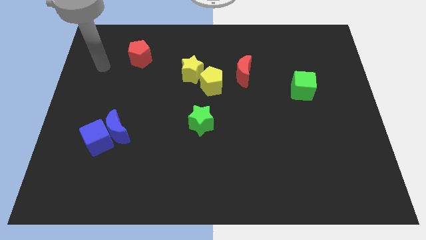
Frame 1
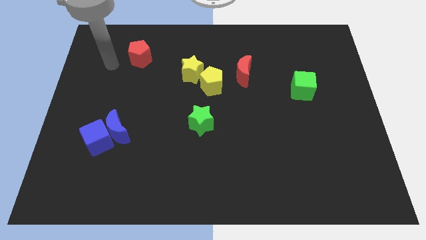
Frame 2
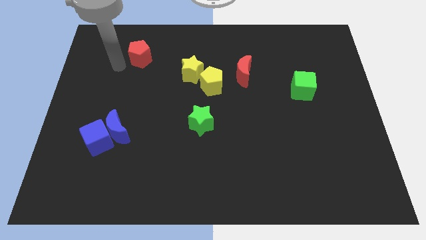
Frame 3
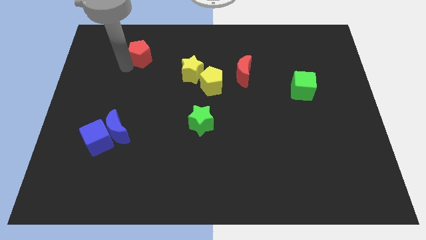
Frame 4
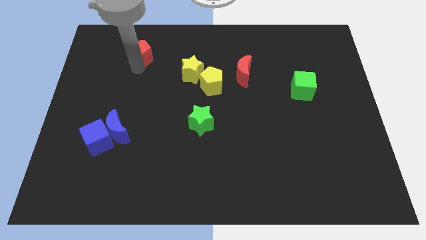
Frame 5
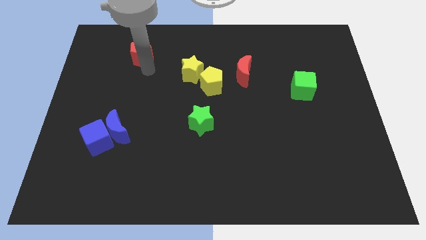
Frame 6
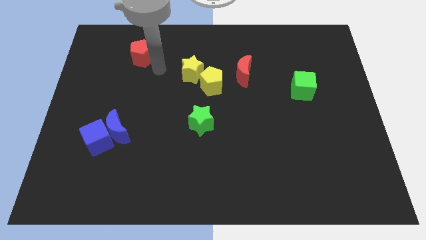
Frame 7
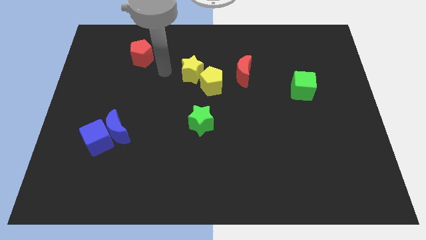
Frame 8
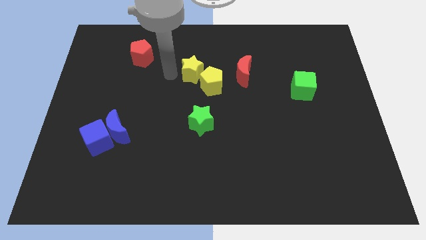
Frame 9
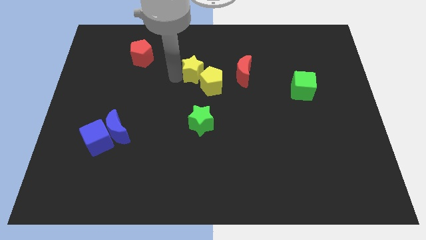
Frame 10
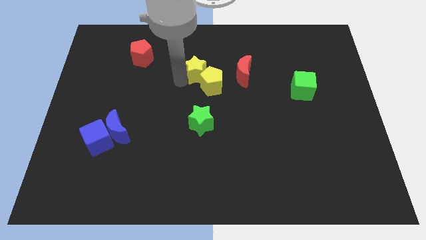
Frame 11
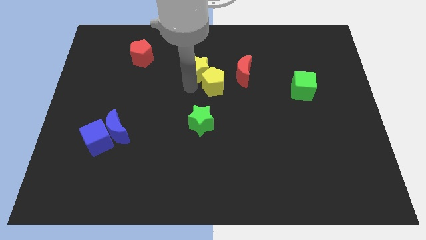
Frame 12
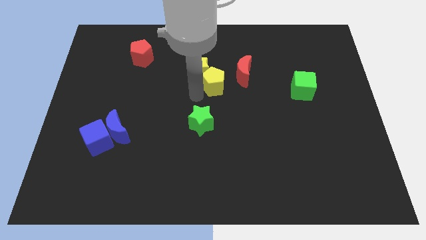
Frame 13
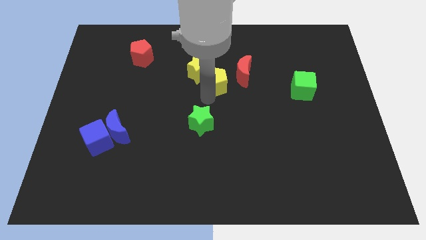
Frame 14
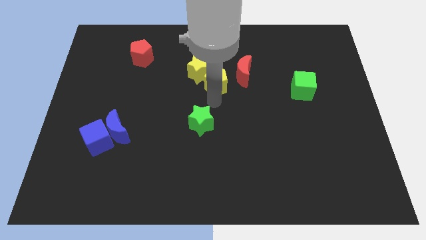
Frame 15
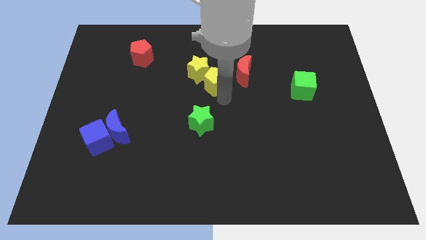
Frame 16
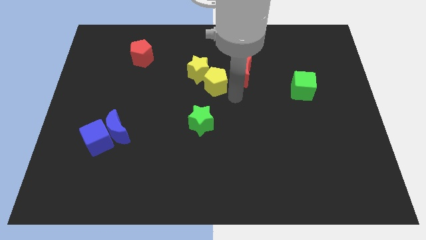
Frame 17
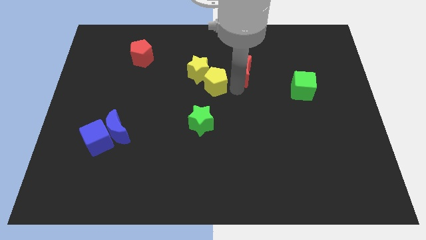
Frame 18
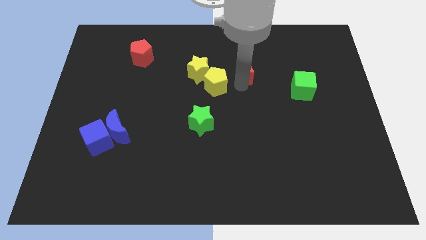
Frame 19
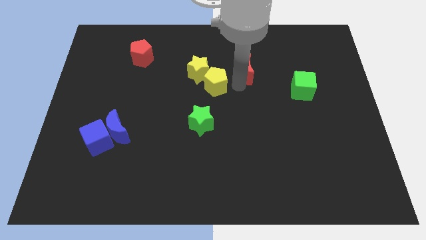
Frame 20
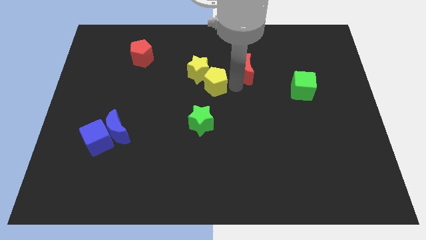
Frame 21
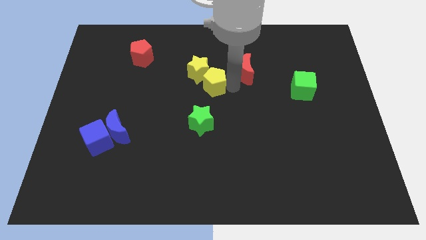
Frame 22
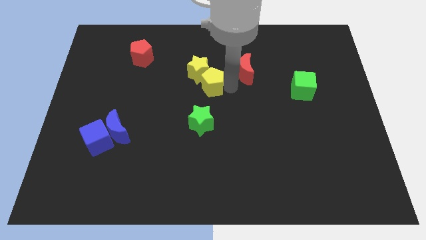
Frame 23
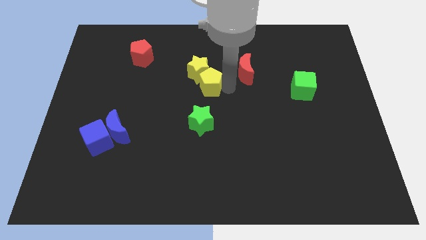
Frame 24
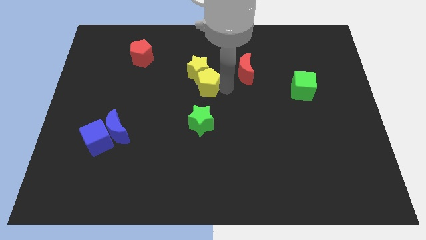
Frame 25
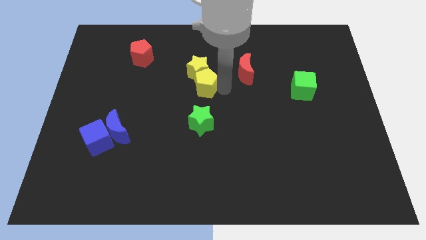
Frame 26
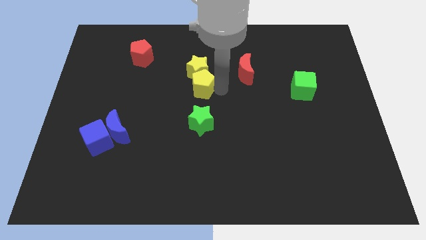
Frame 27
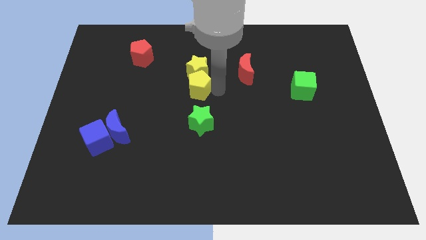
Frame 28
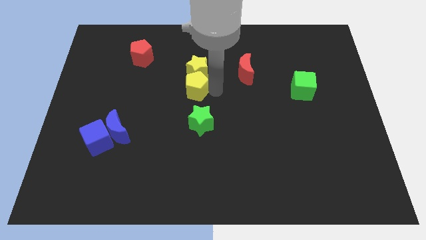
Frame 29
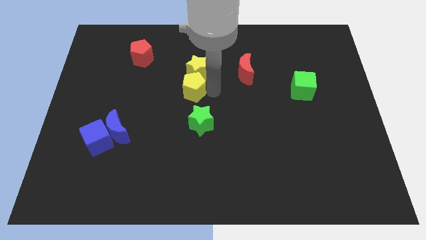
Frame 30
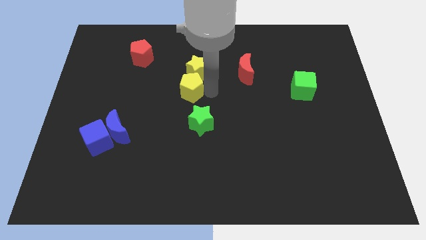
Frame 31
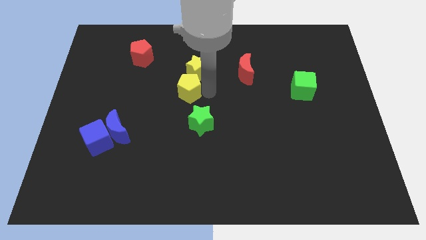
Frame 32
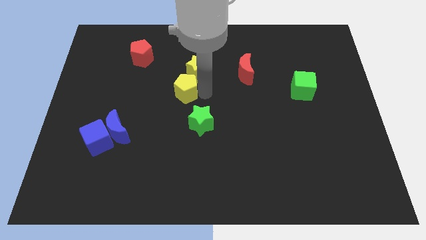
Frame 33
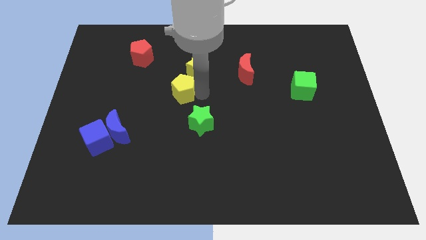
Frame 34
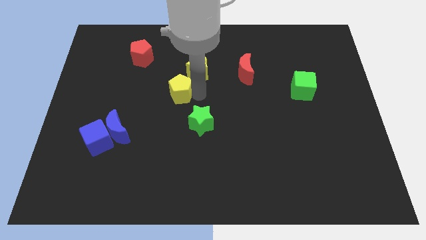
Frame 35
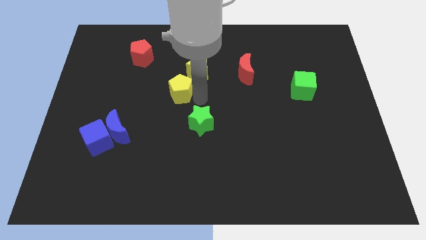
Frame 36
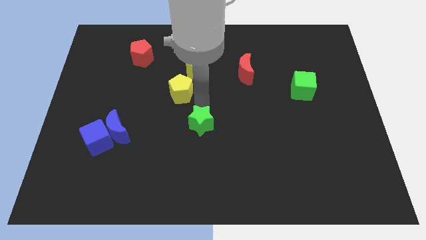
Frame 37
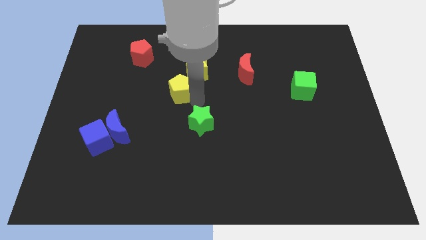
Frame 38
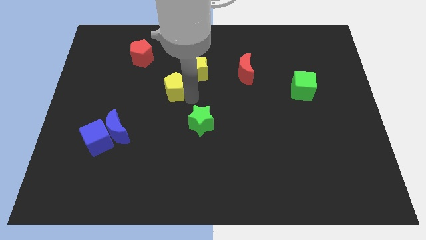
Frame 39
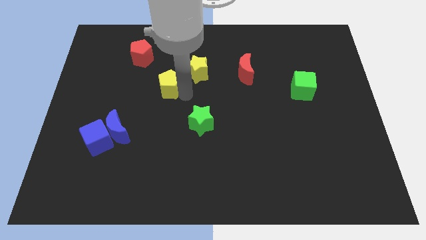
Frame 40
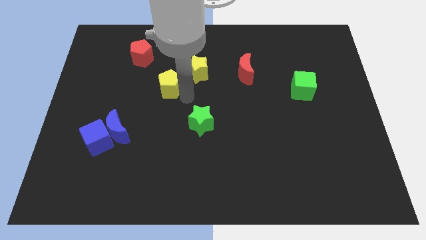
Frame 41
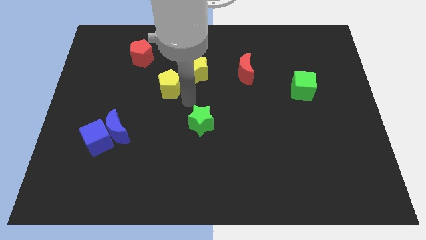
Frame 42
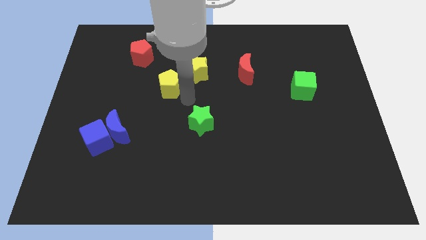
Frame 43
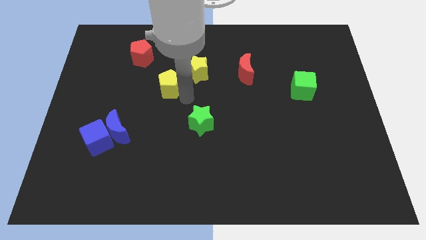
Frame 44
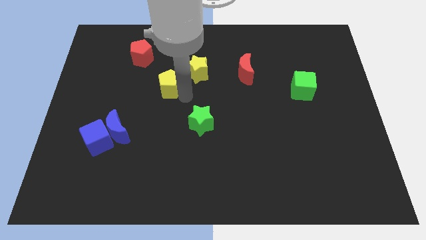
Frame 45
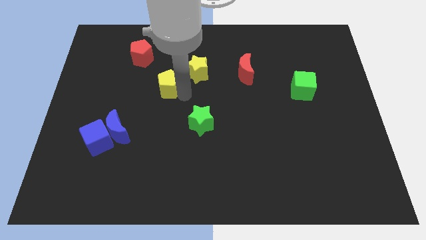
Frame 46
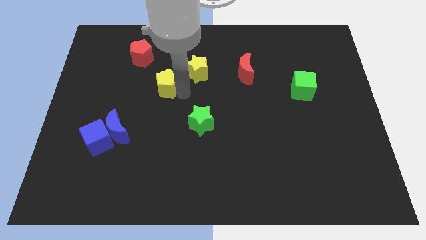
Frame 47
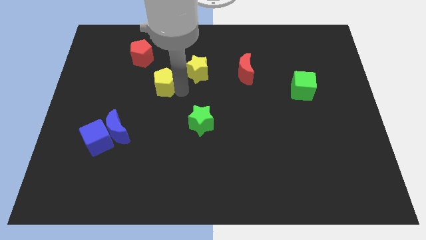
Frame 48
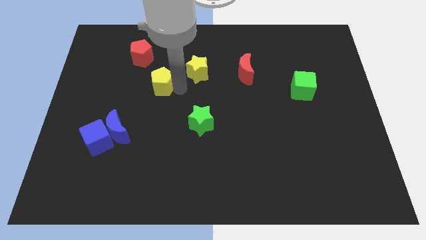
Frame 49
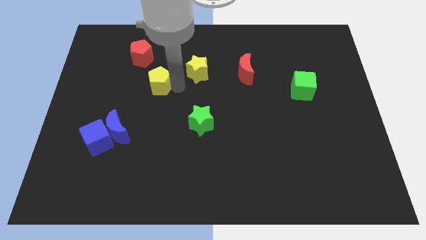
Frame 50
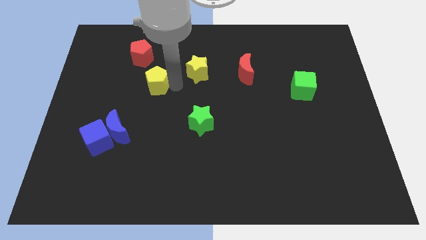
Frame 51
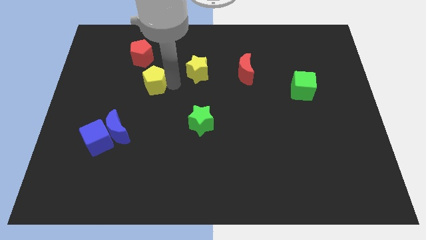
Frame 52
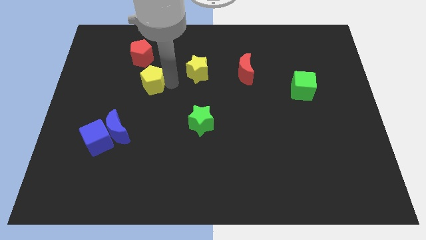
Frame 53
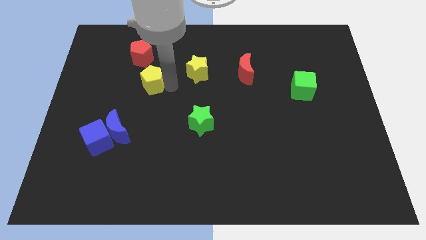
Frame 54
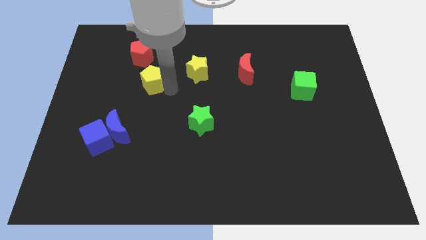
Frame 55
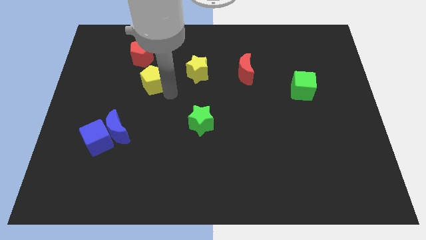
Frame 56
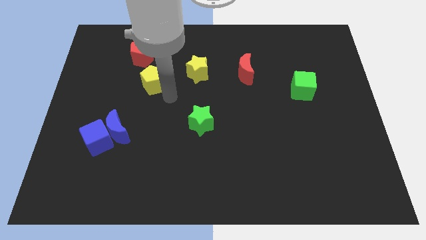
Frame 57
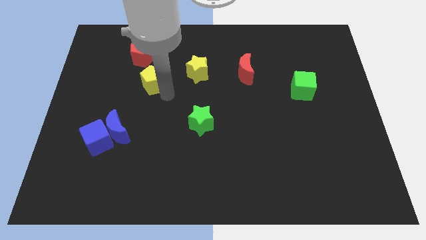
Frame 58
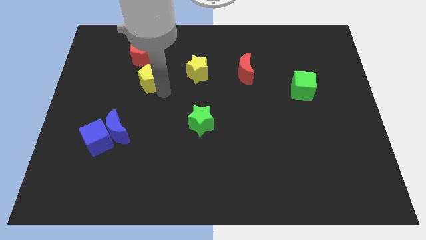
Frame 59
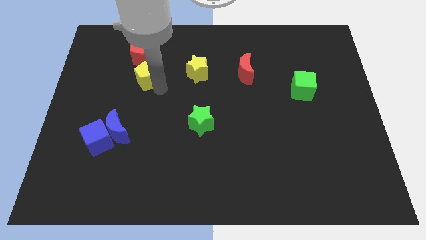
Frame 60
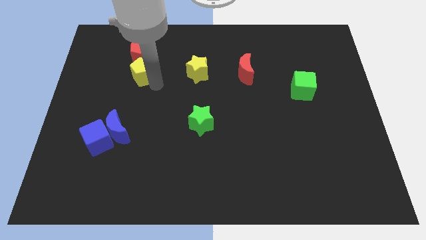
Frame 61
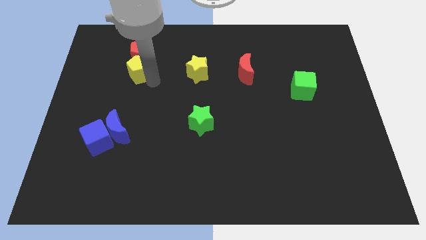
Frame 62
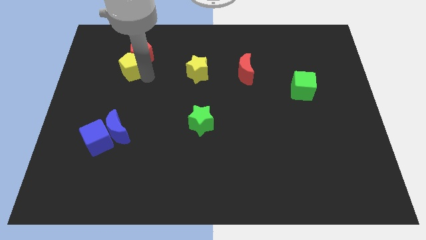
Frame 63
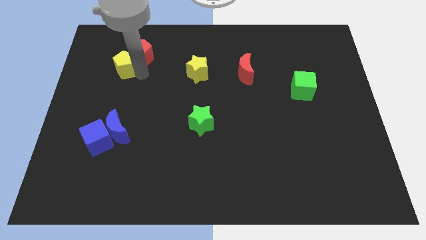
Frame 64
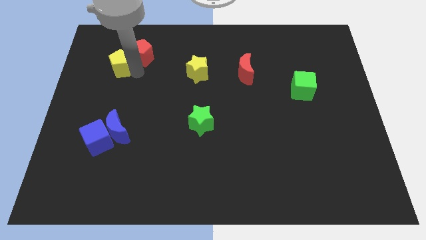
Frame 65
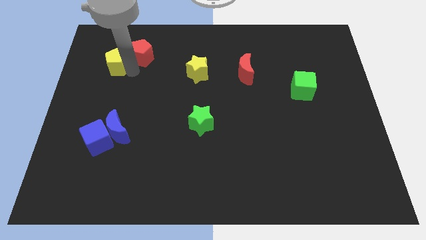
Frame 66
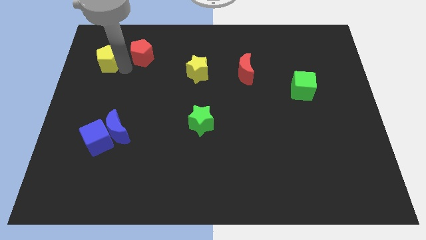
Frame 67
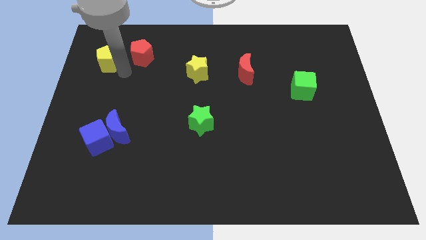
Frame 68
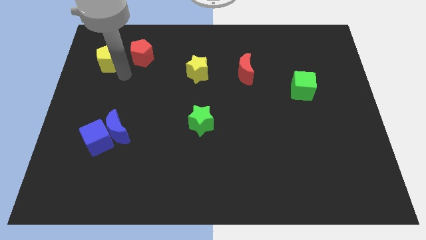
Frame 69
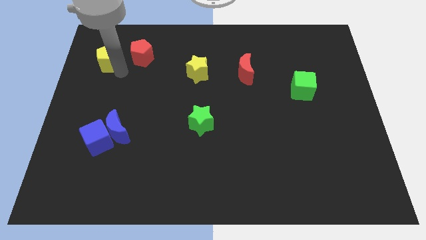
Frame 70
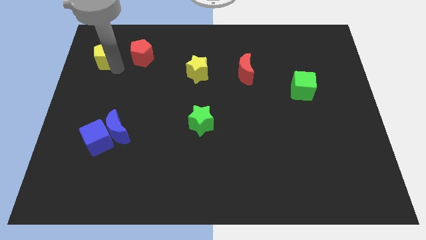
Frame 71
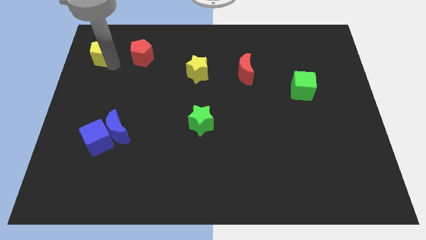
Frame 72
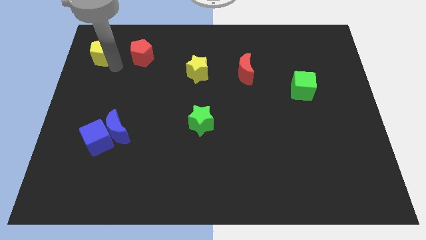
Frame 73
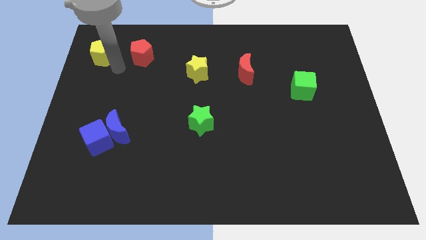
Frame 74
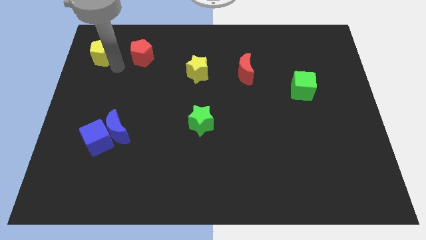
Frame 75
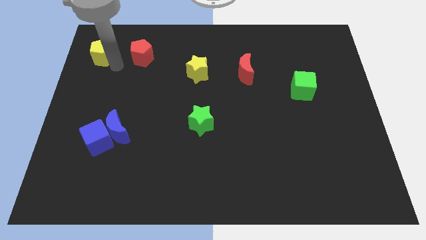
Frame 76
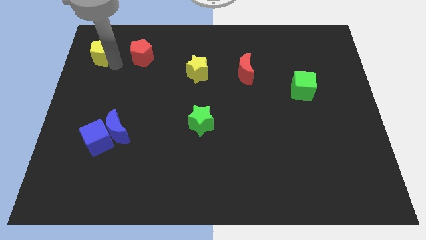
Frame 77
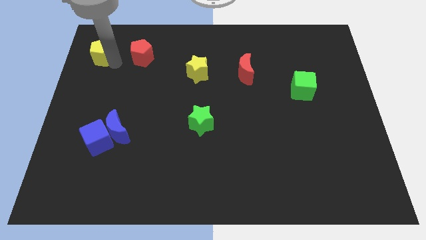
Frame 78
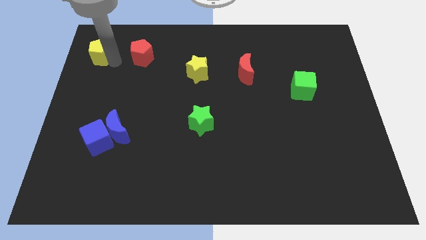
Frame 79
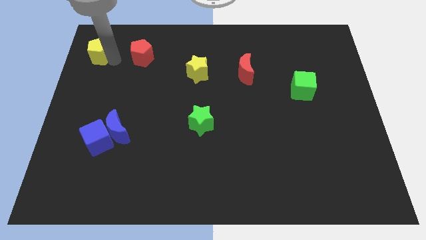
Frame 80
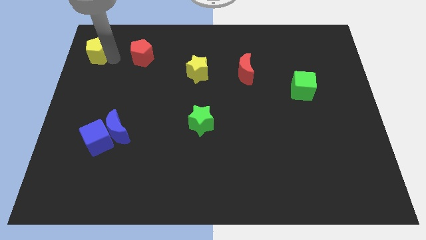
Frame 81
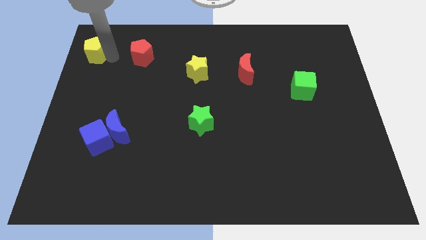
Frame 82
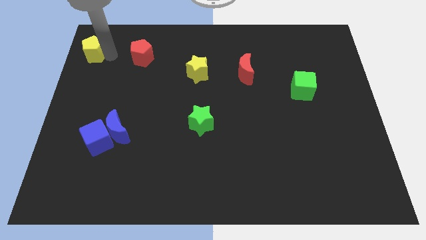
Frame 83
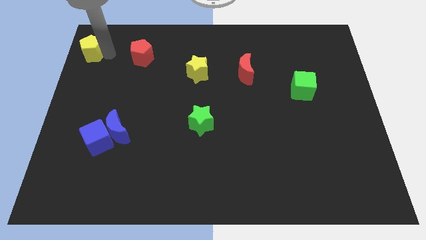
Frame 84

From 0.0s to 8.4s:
move the yellow pentagon to the top left
